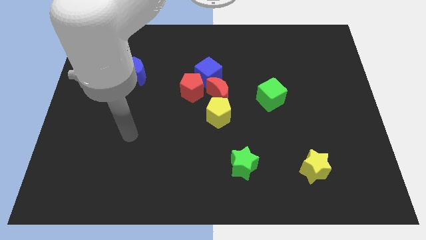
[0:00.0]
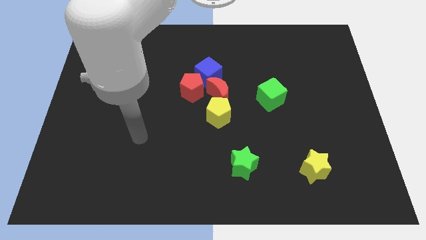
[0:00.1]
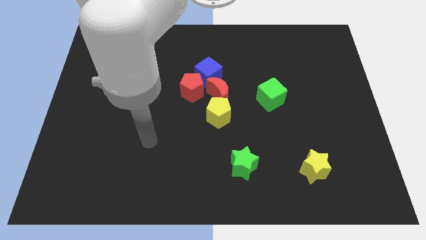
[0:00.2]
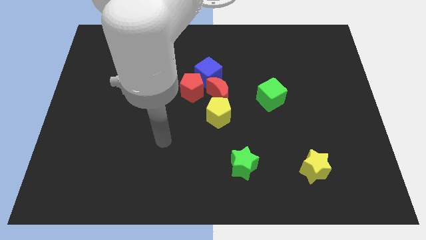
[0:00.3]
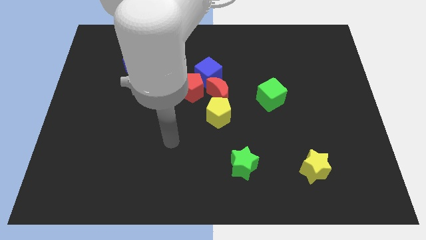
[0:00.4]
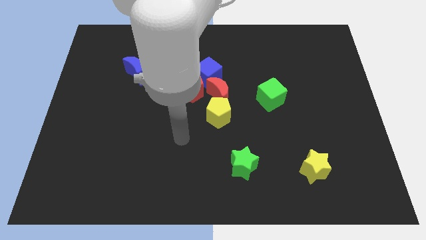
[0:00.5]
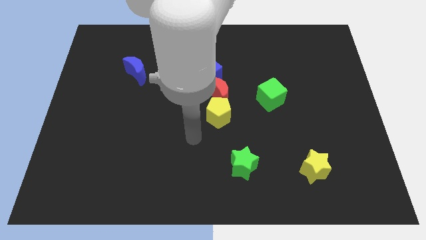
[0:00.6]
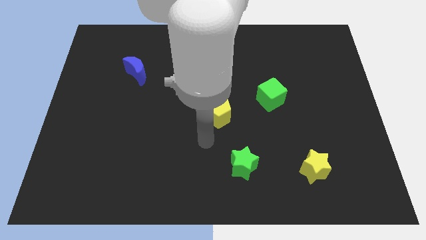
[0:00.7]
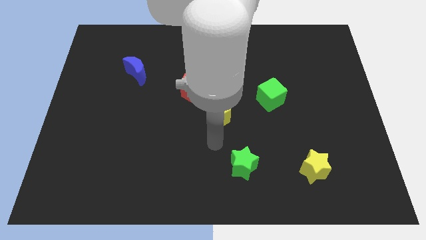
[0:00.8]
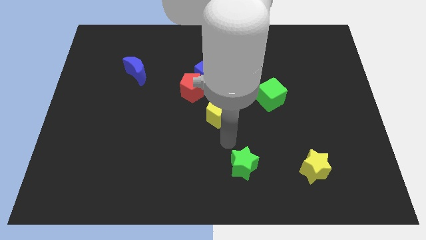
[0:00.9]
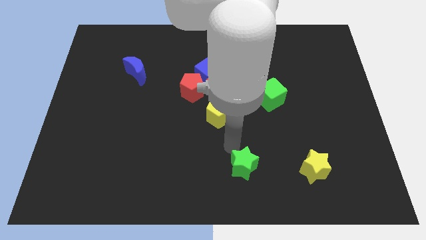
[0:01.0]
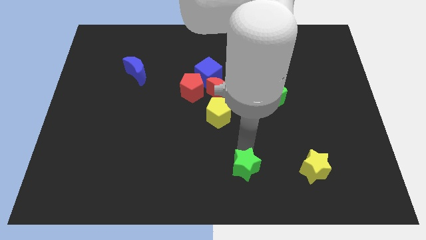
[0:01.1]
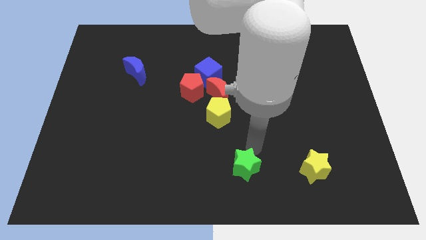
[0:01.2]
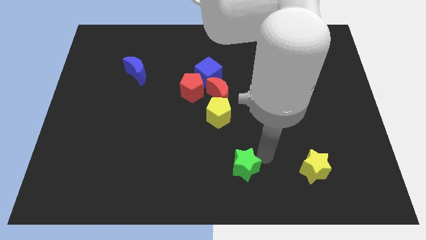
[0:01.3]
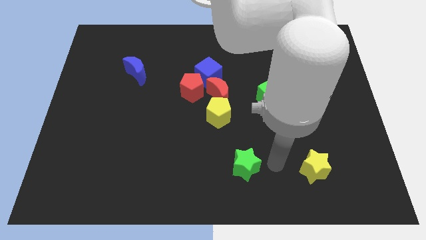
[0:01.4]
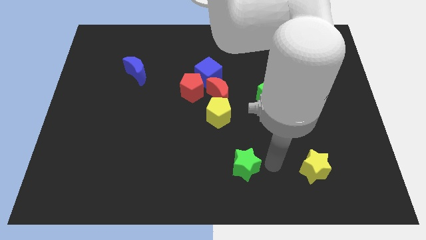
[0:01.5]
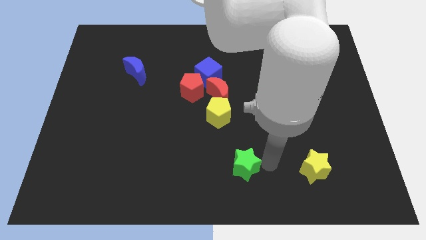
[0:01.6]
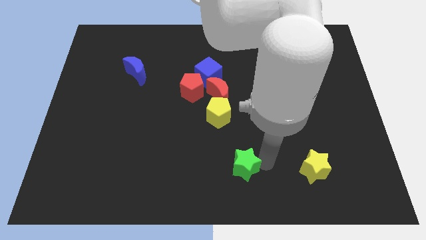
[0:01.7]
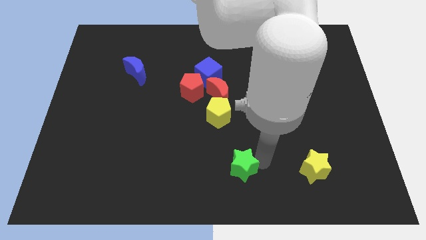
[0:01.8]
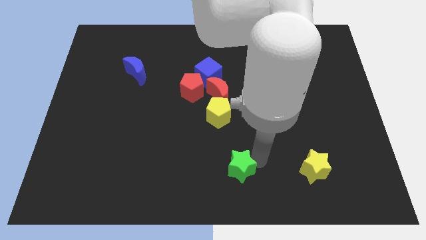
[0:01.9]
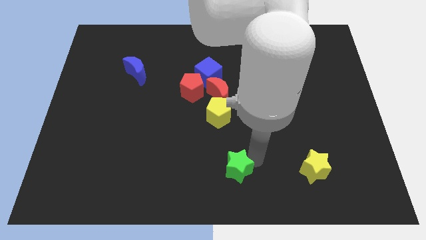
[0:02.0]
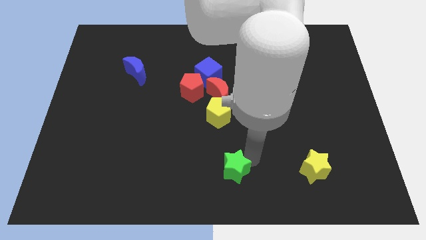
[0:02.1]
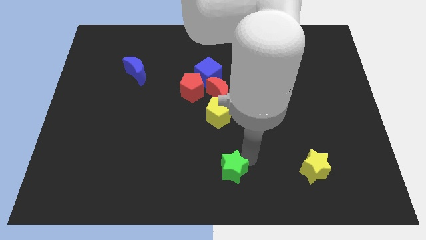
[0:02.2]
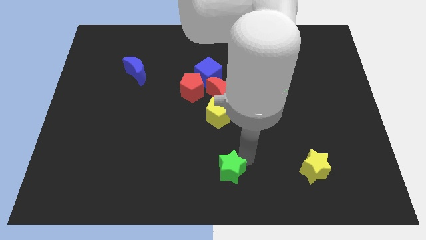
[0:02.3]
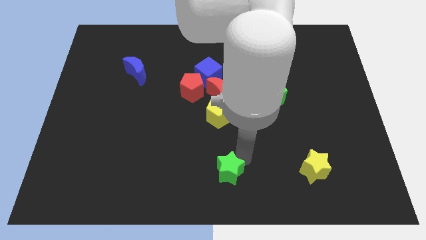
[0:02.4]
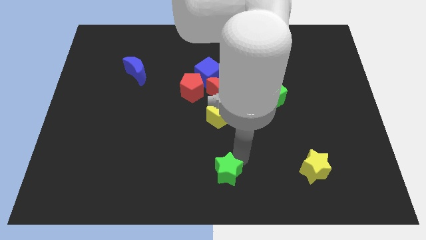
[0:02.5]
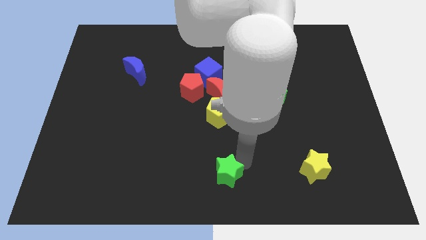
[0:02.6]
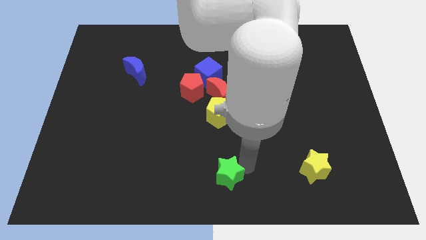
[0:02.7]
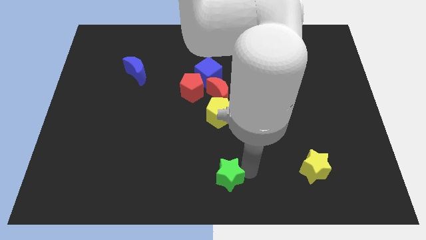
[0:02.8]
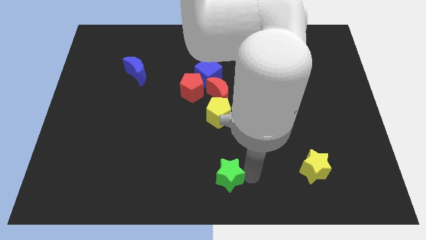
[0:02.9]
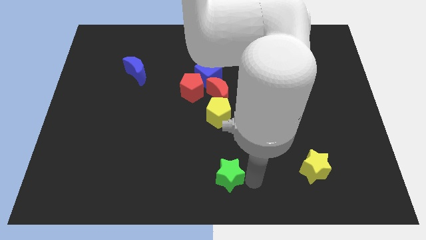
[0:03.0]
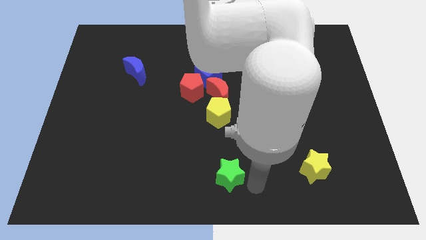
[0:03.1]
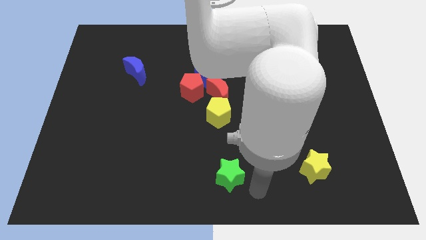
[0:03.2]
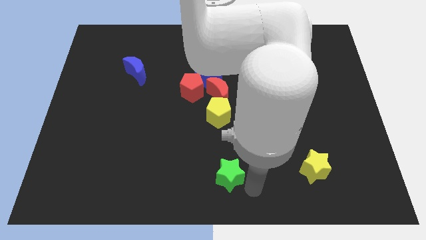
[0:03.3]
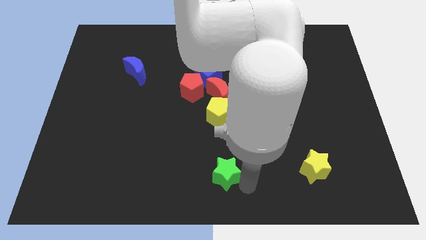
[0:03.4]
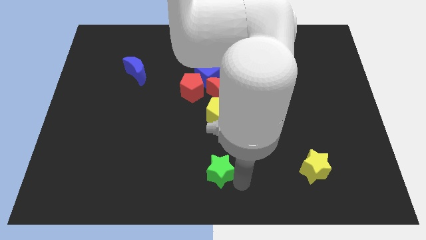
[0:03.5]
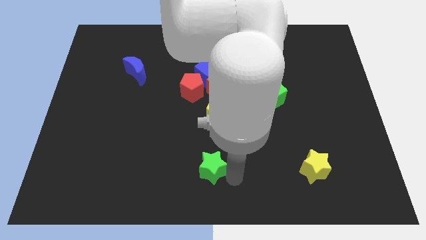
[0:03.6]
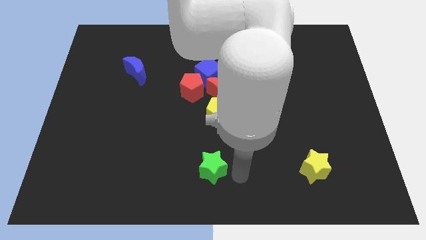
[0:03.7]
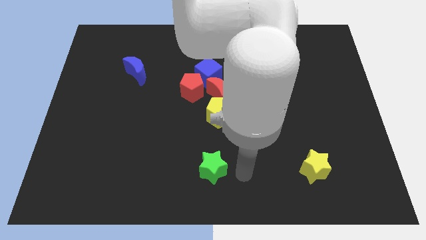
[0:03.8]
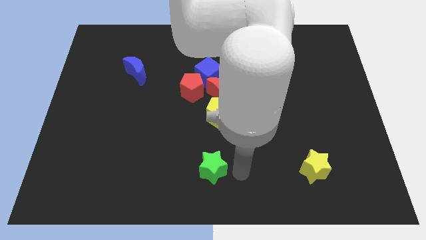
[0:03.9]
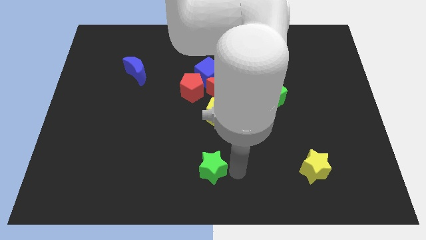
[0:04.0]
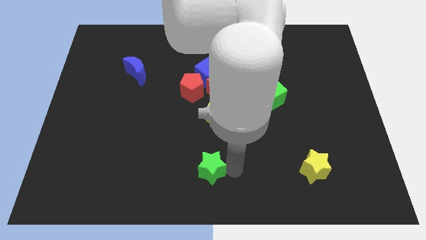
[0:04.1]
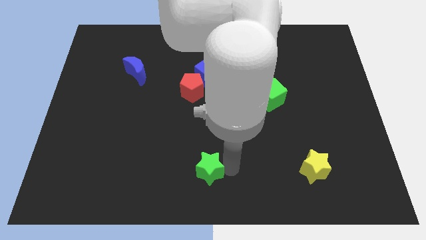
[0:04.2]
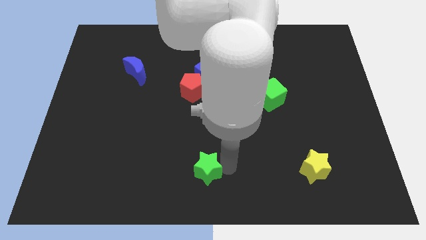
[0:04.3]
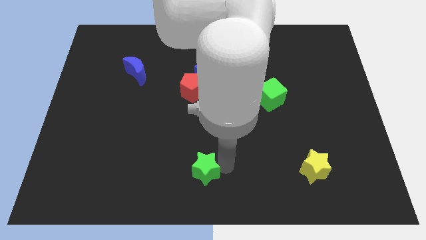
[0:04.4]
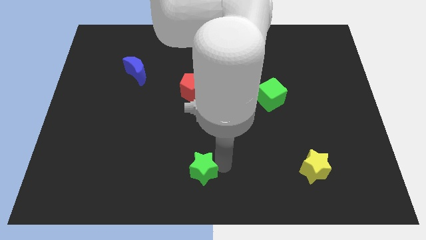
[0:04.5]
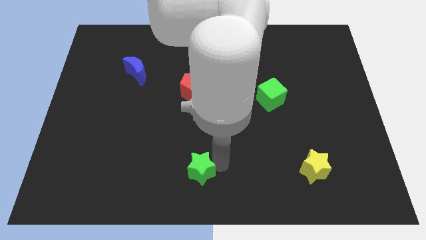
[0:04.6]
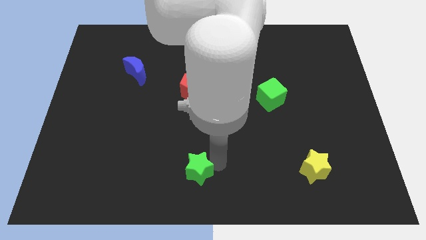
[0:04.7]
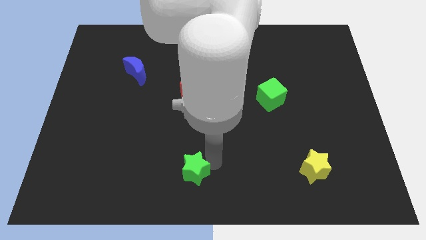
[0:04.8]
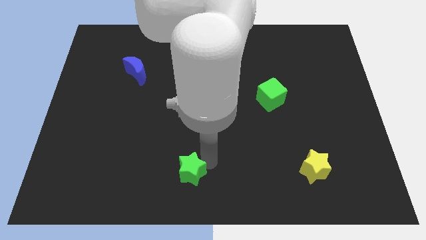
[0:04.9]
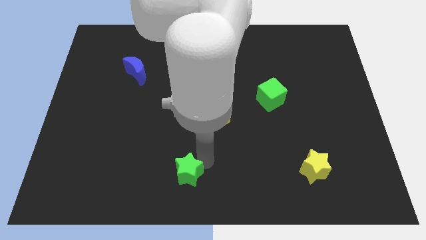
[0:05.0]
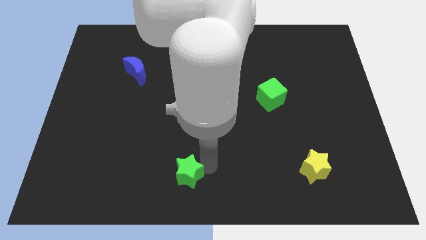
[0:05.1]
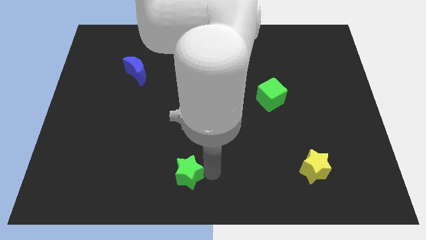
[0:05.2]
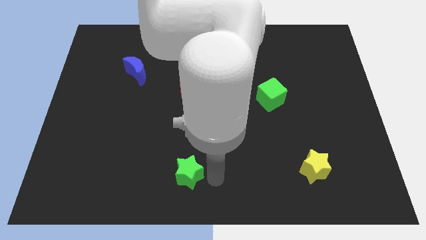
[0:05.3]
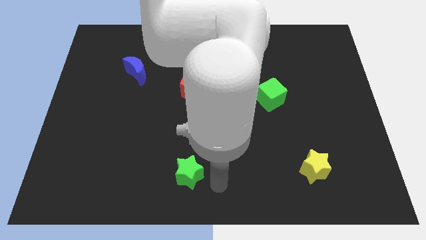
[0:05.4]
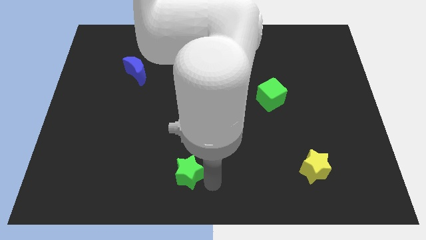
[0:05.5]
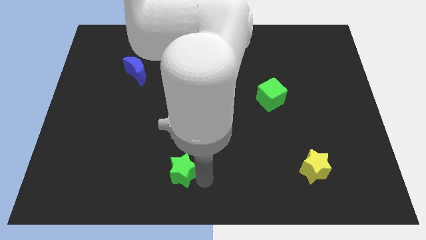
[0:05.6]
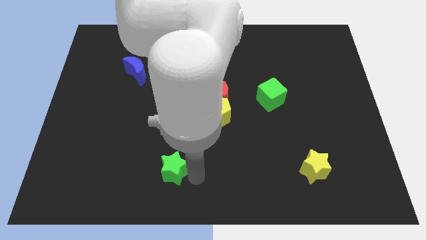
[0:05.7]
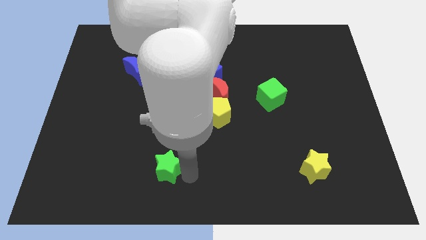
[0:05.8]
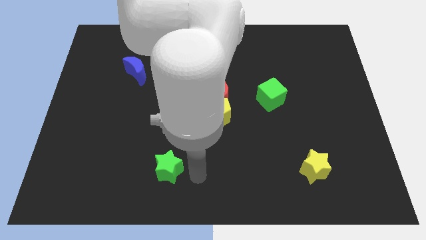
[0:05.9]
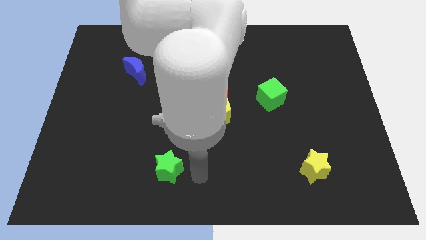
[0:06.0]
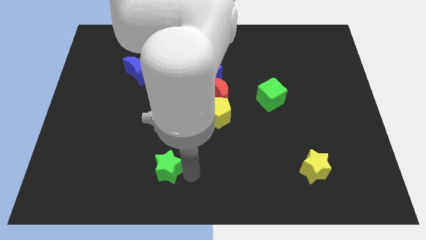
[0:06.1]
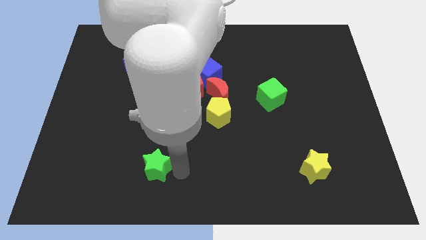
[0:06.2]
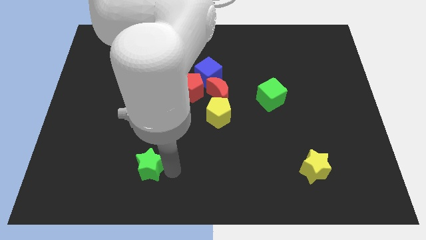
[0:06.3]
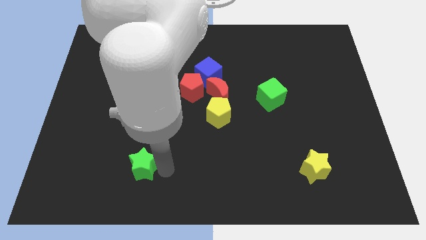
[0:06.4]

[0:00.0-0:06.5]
push the green star to the left

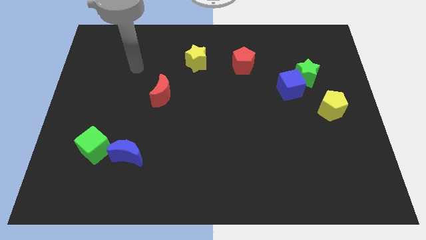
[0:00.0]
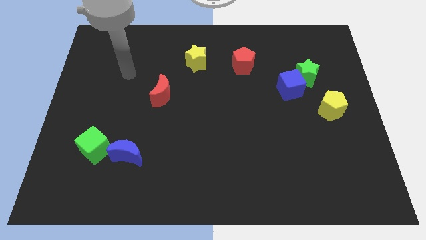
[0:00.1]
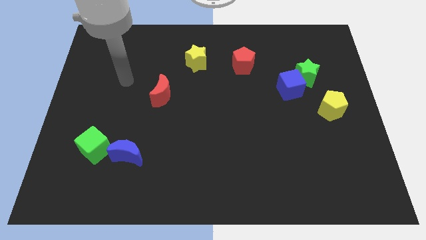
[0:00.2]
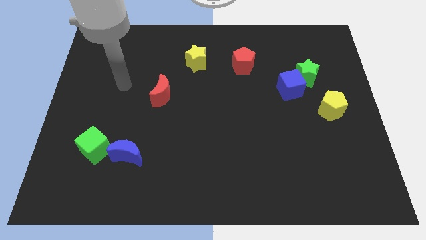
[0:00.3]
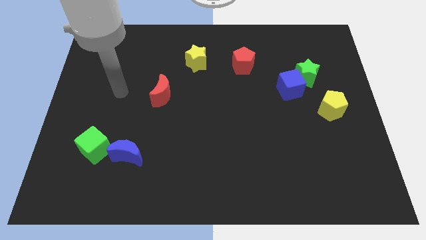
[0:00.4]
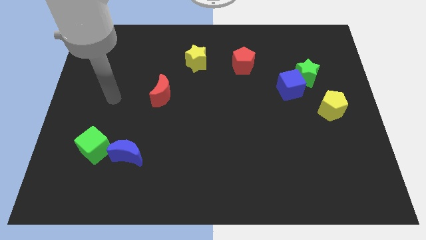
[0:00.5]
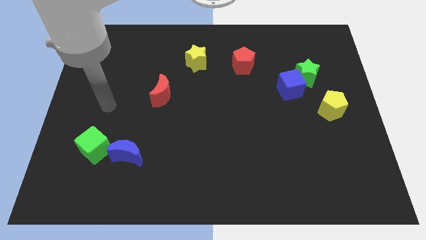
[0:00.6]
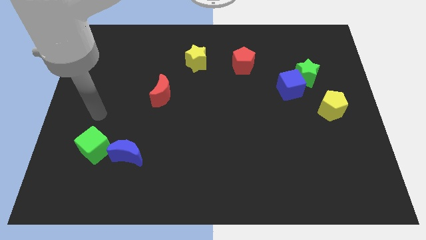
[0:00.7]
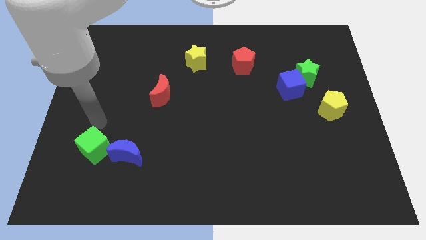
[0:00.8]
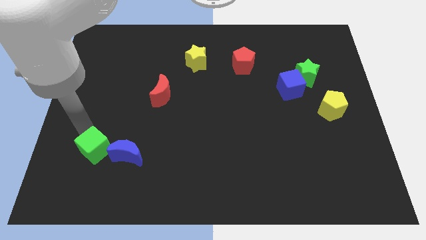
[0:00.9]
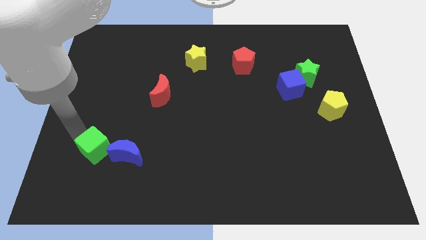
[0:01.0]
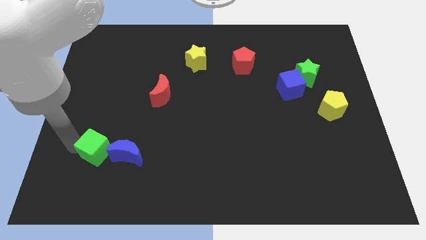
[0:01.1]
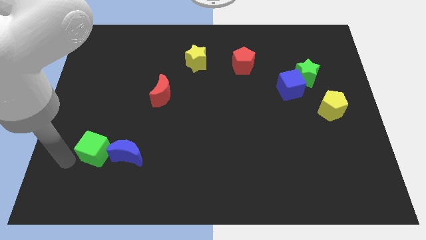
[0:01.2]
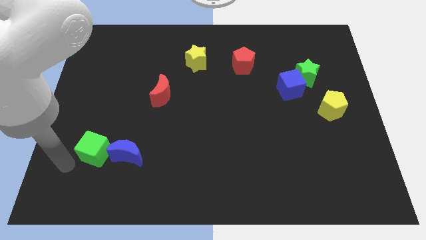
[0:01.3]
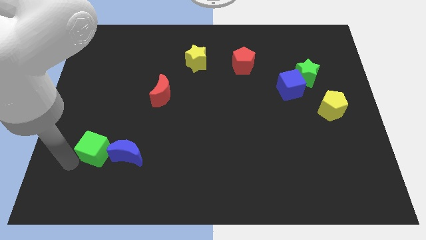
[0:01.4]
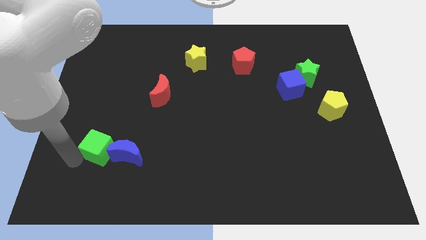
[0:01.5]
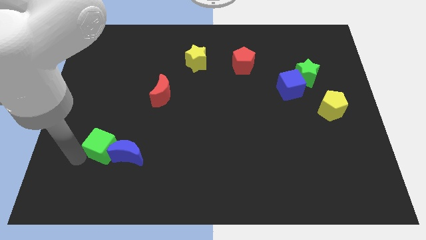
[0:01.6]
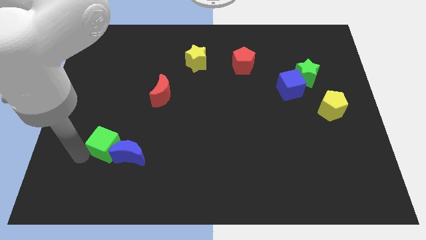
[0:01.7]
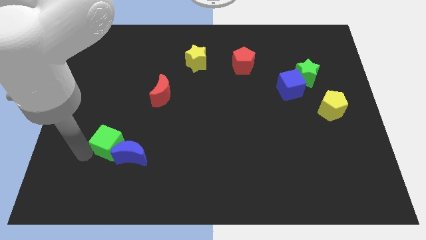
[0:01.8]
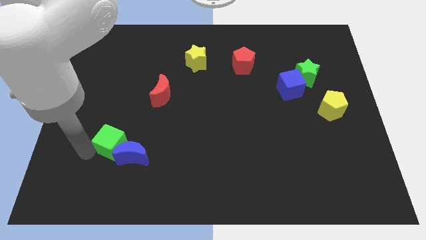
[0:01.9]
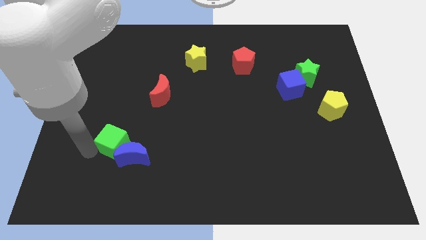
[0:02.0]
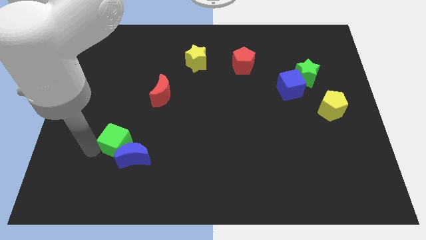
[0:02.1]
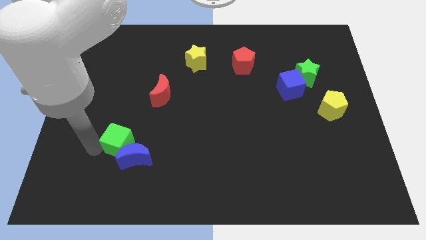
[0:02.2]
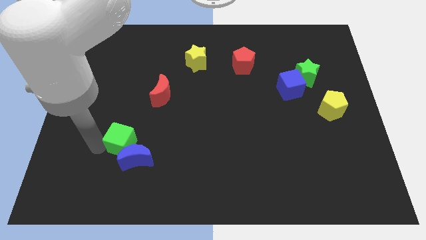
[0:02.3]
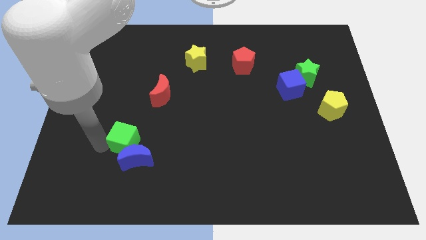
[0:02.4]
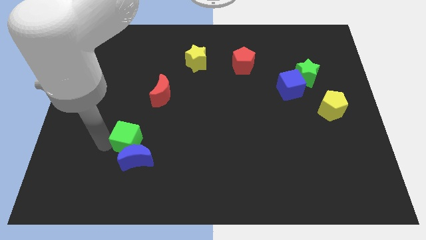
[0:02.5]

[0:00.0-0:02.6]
slightly push the green cube right
